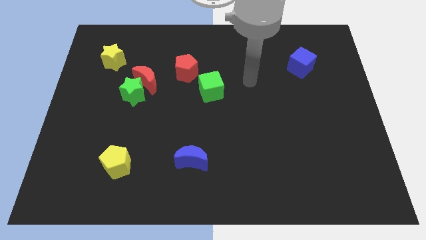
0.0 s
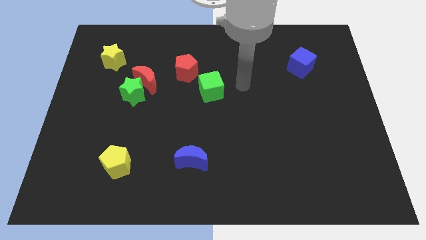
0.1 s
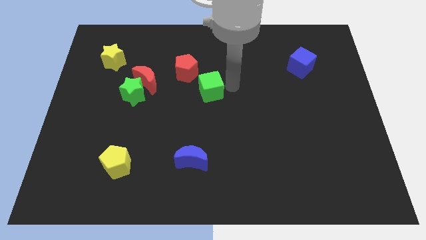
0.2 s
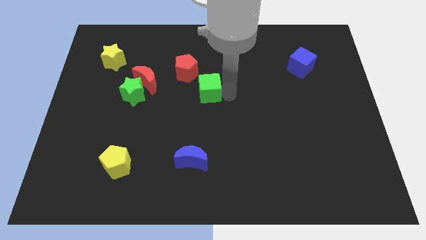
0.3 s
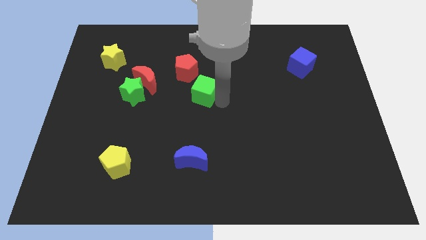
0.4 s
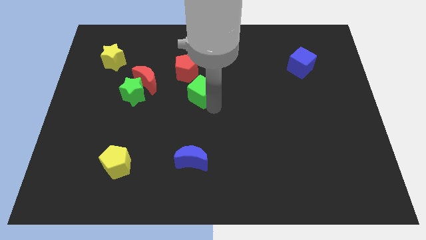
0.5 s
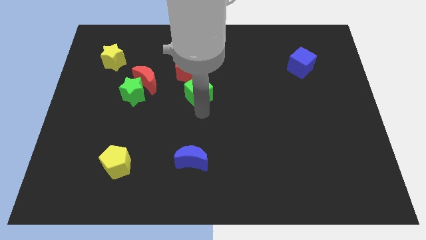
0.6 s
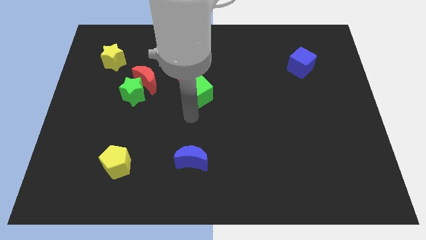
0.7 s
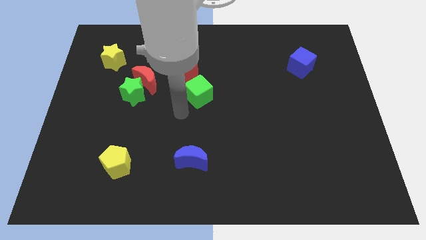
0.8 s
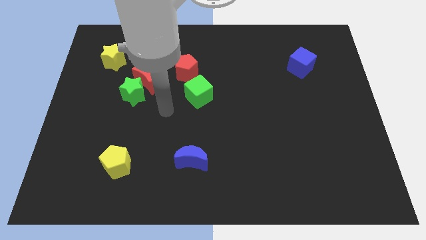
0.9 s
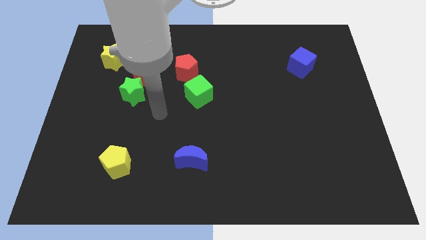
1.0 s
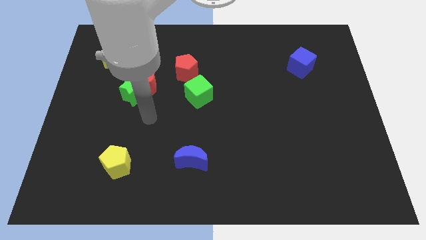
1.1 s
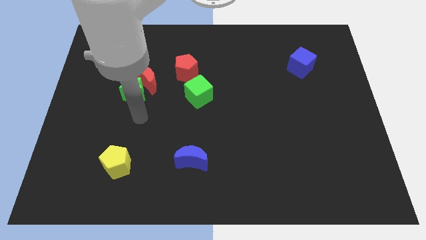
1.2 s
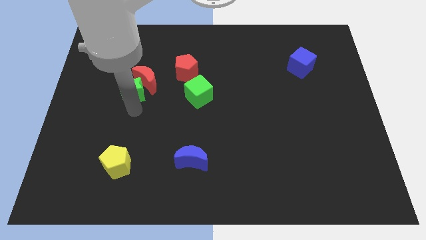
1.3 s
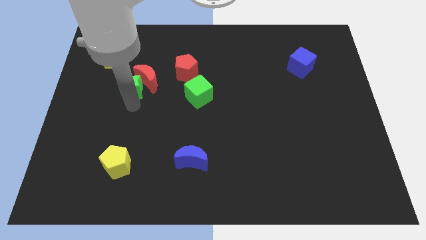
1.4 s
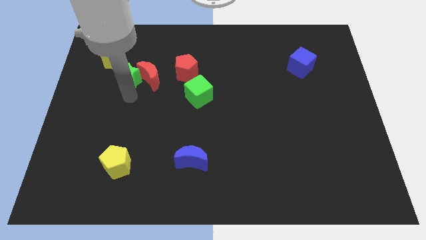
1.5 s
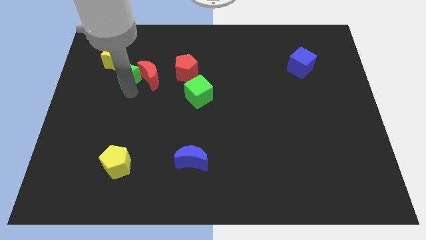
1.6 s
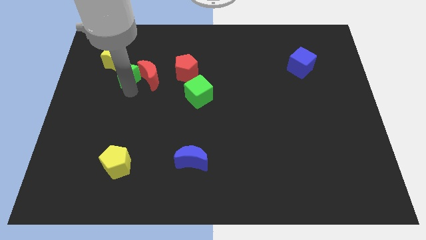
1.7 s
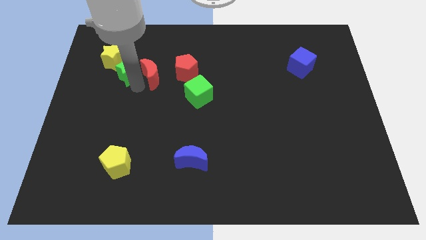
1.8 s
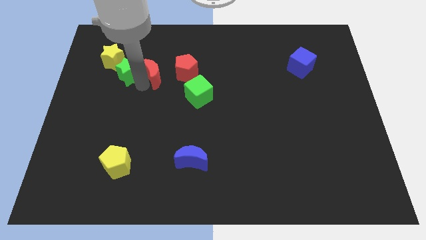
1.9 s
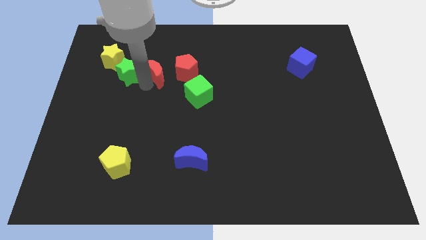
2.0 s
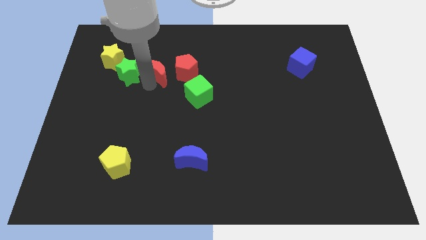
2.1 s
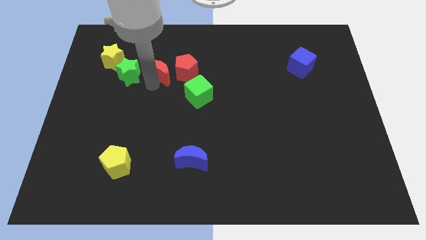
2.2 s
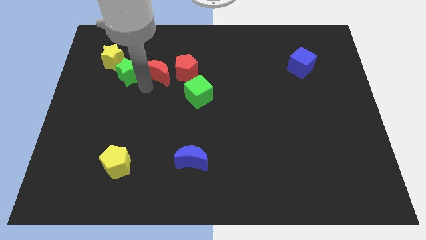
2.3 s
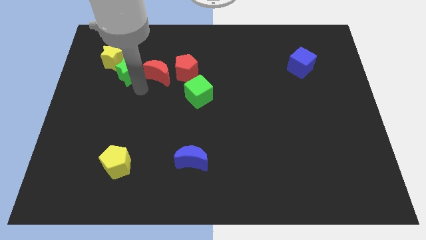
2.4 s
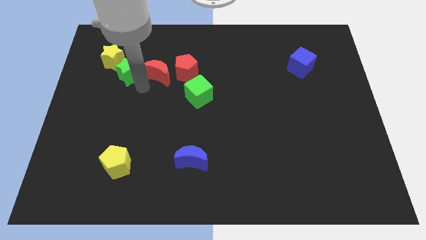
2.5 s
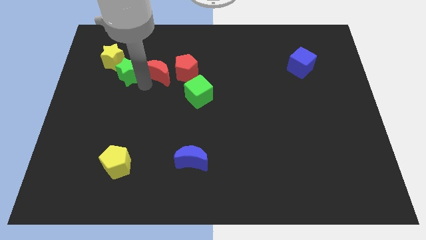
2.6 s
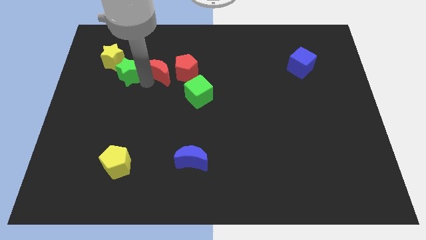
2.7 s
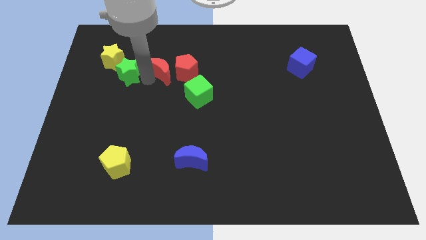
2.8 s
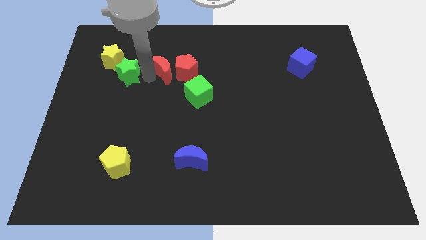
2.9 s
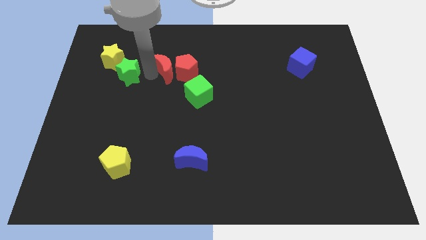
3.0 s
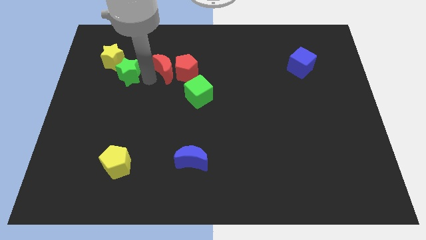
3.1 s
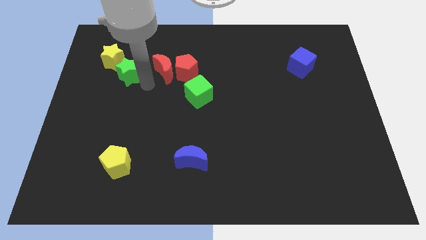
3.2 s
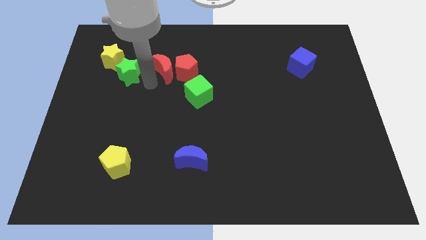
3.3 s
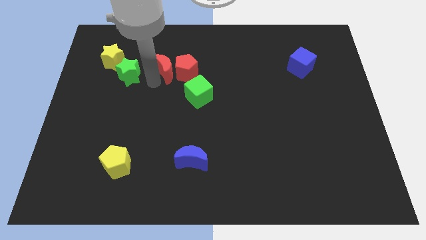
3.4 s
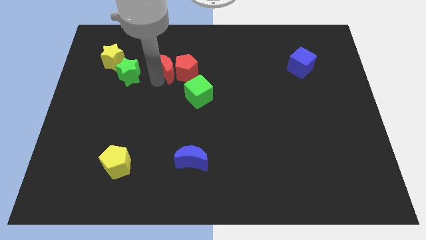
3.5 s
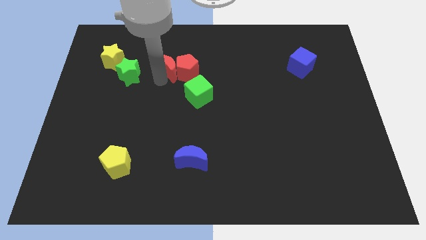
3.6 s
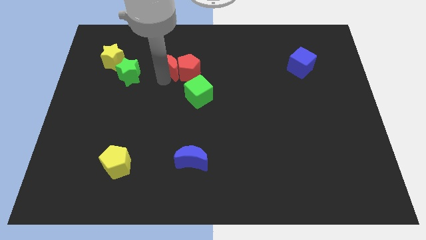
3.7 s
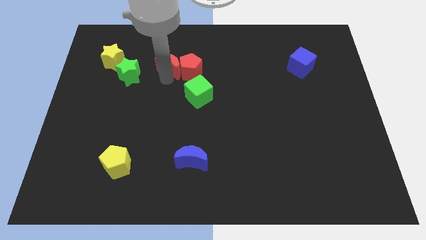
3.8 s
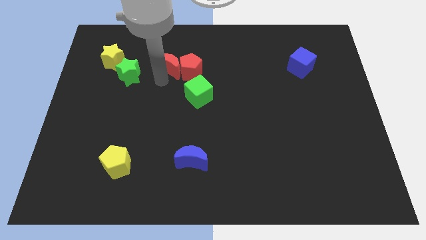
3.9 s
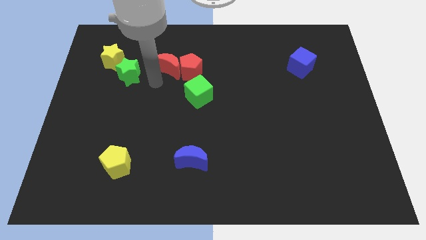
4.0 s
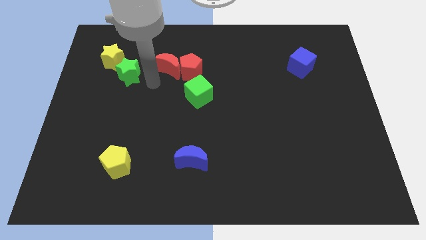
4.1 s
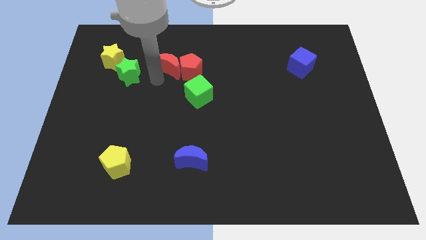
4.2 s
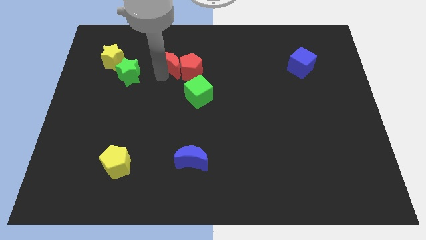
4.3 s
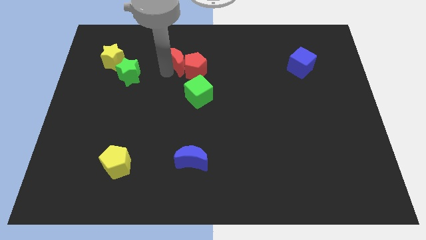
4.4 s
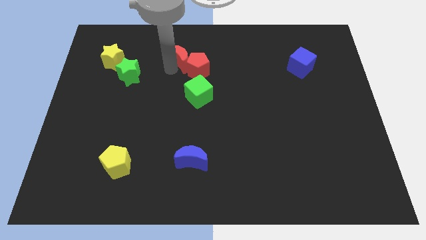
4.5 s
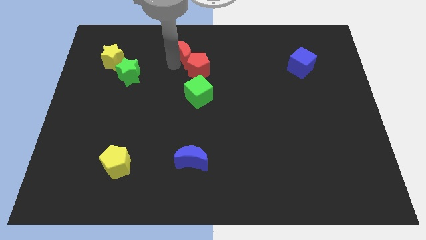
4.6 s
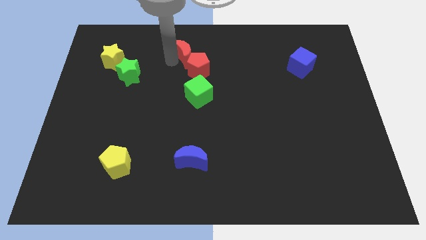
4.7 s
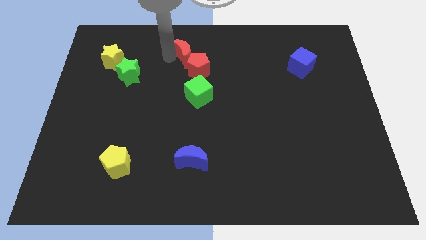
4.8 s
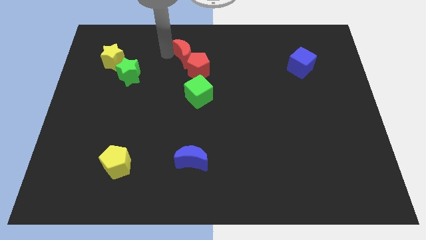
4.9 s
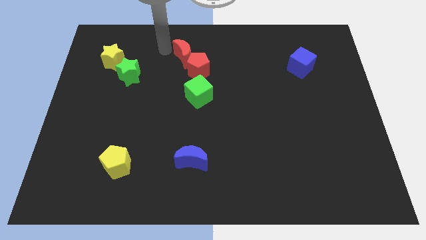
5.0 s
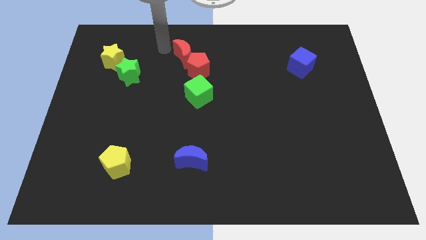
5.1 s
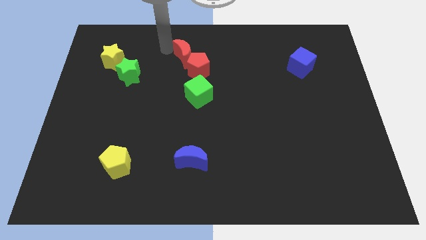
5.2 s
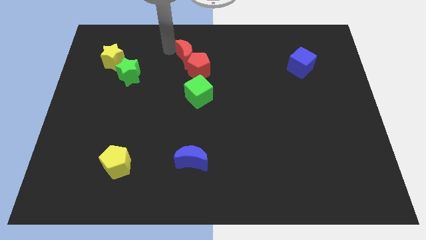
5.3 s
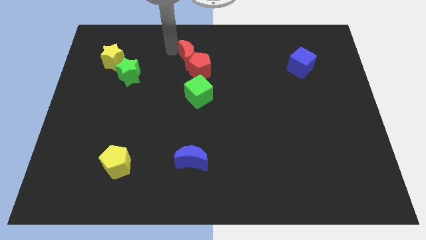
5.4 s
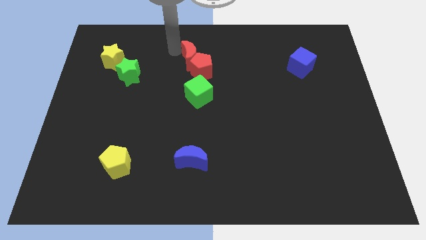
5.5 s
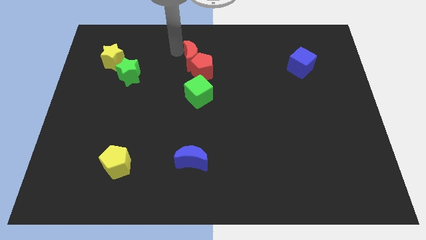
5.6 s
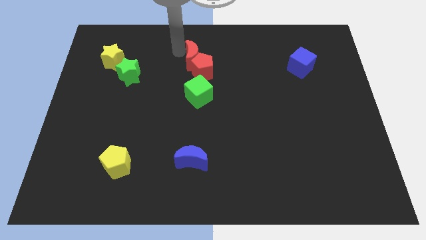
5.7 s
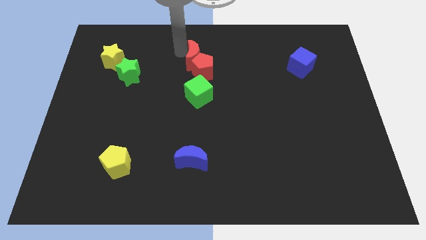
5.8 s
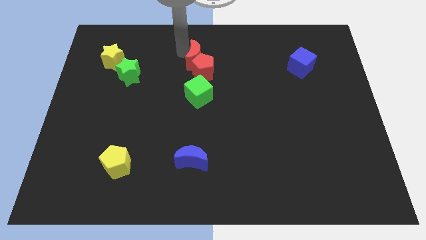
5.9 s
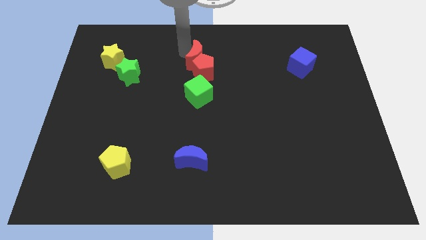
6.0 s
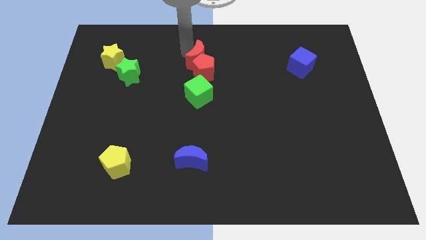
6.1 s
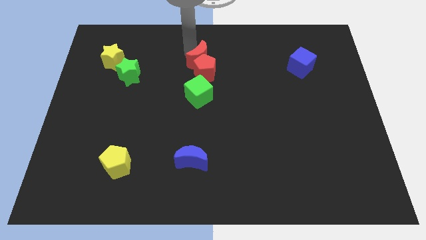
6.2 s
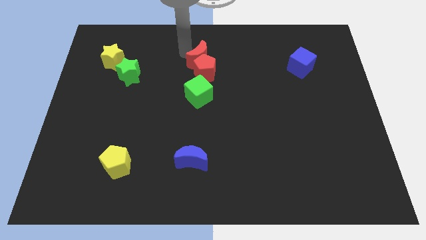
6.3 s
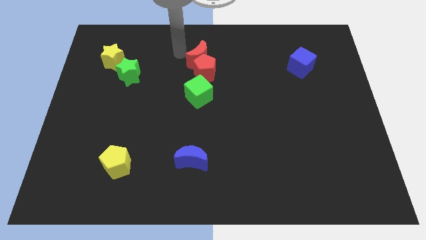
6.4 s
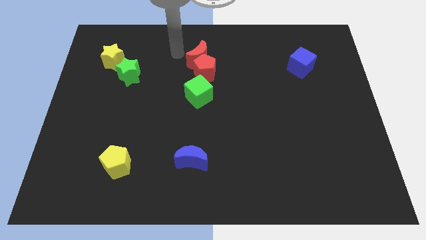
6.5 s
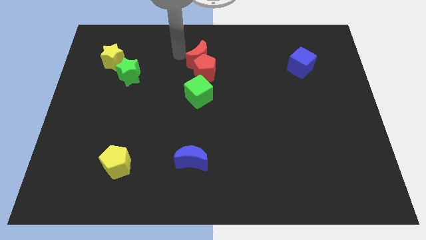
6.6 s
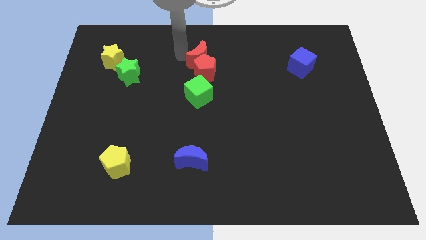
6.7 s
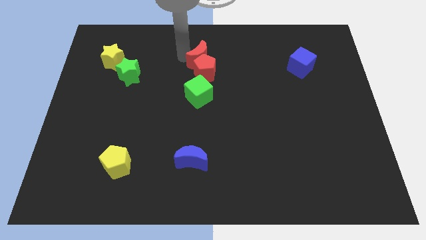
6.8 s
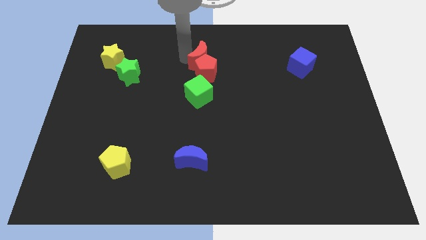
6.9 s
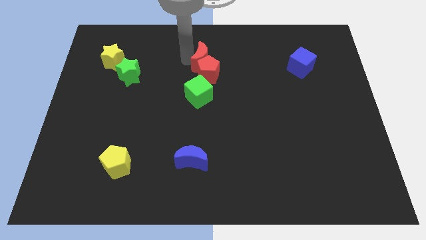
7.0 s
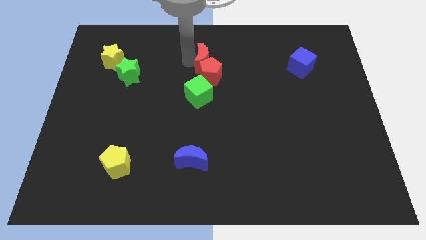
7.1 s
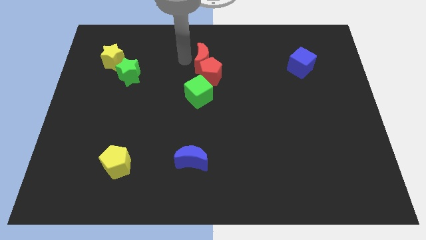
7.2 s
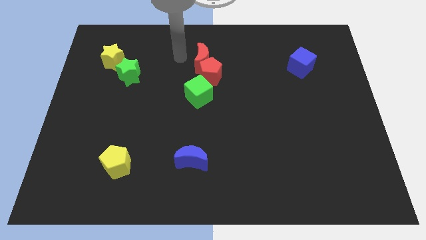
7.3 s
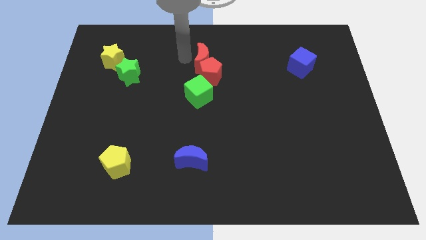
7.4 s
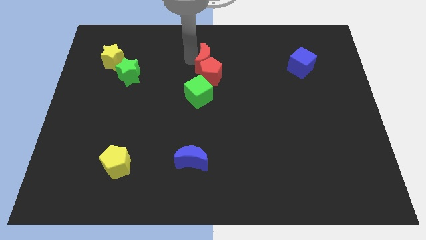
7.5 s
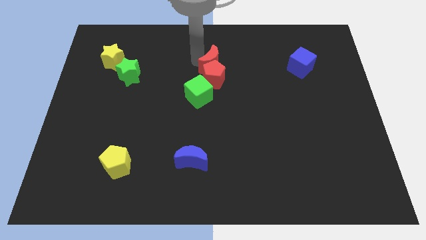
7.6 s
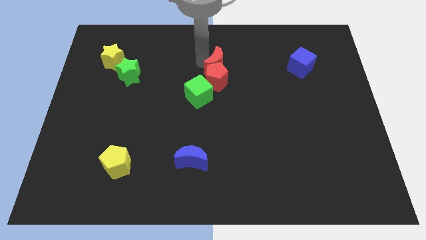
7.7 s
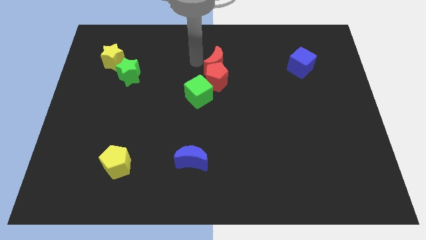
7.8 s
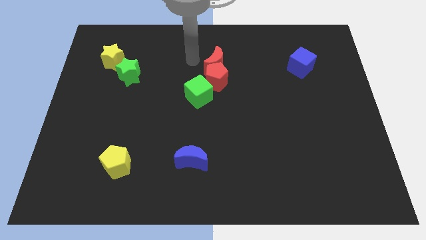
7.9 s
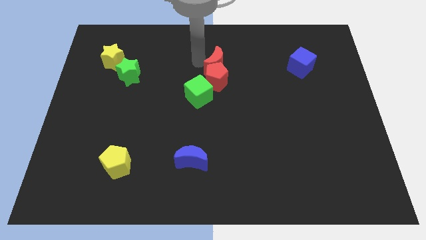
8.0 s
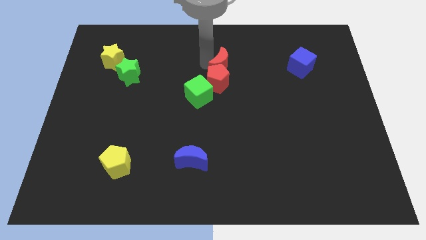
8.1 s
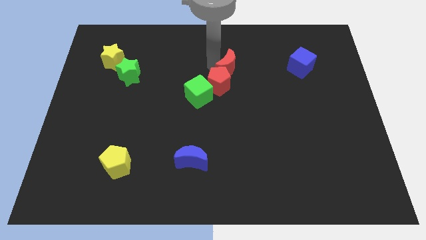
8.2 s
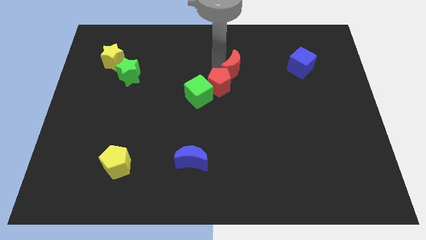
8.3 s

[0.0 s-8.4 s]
slide the red moon right
